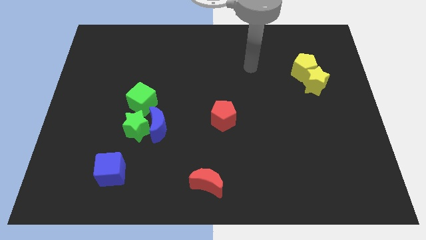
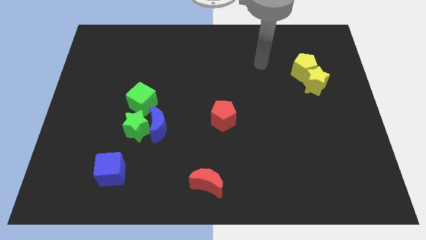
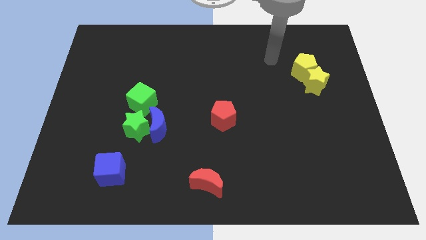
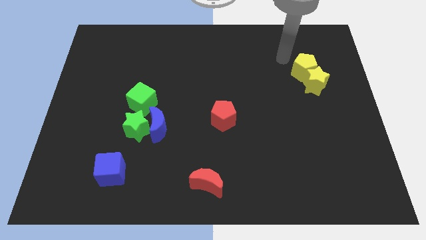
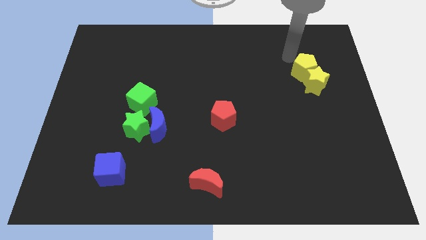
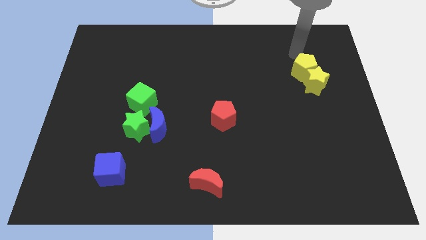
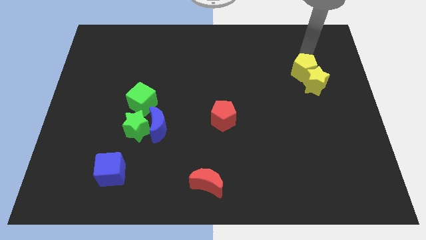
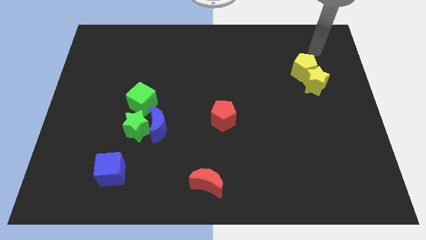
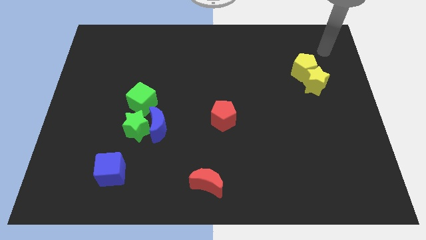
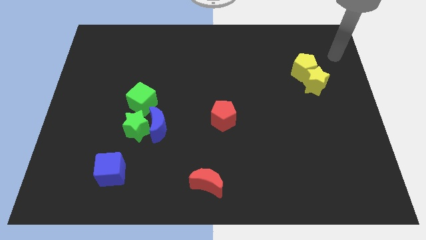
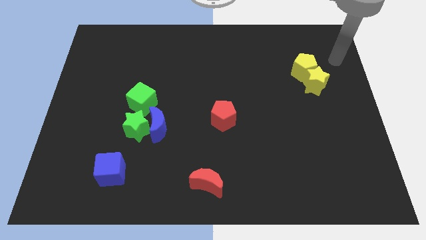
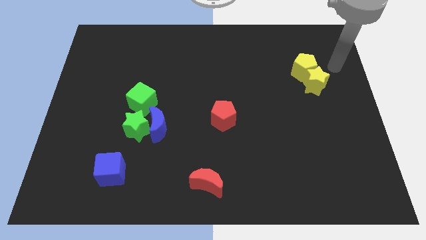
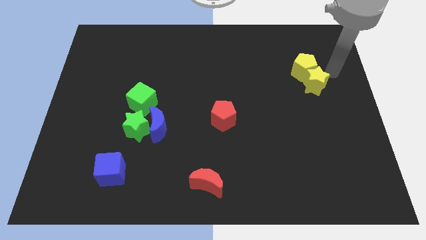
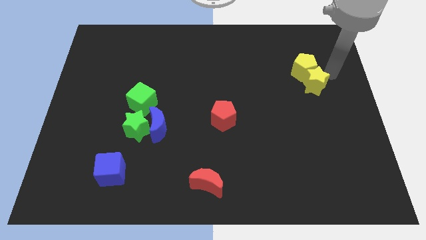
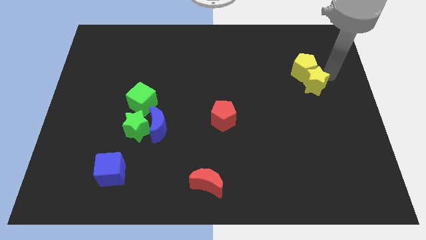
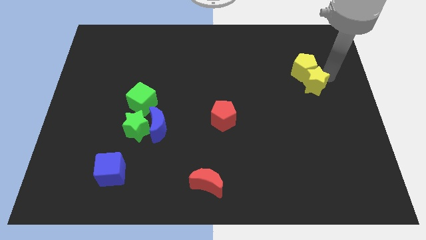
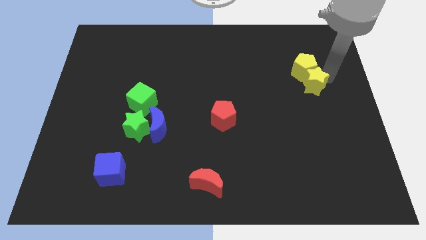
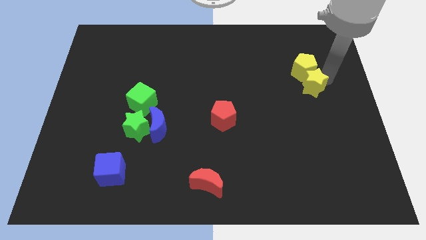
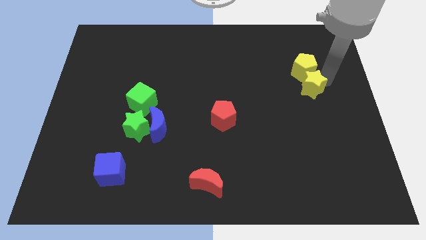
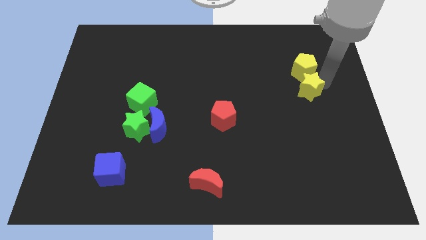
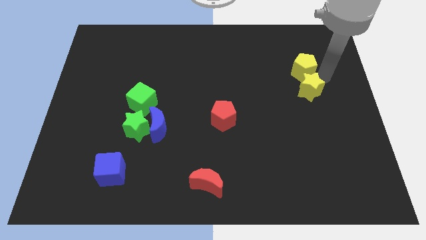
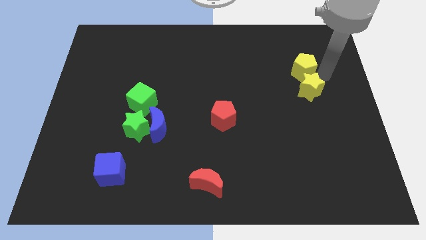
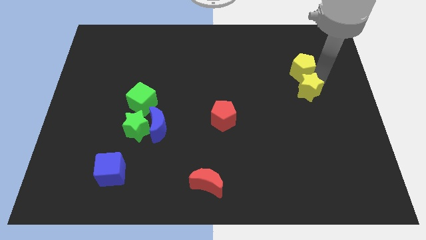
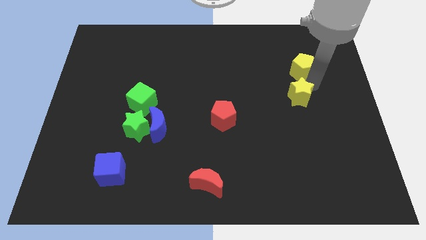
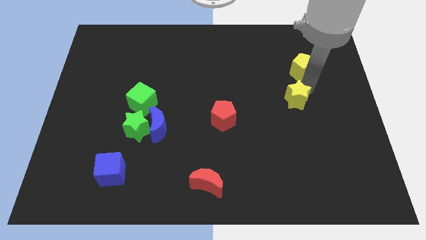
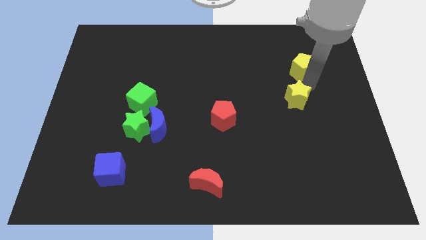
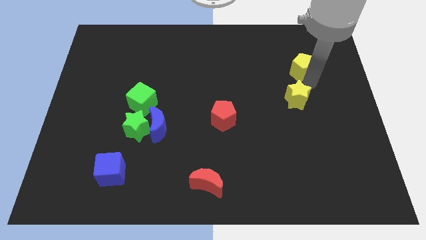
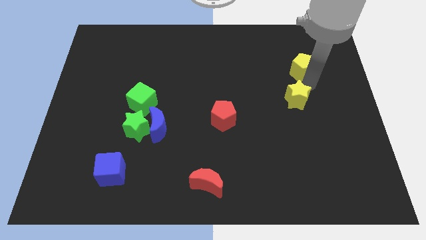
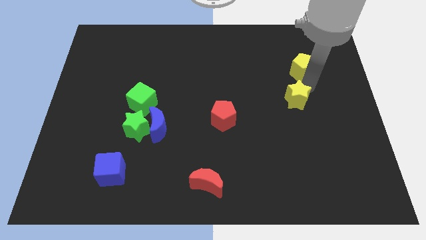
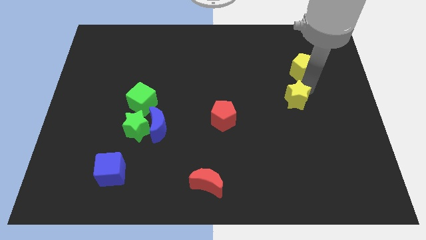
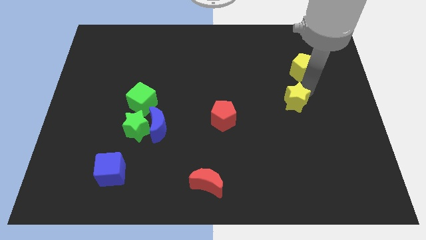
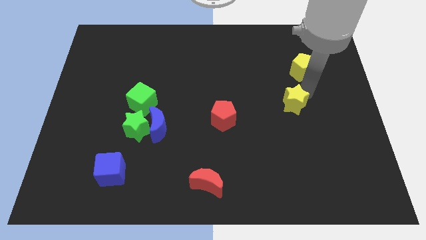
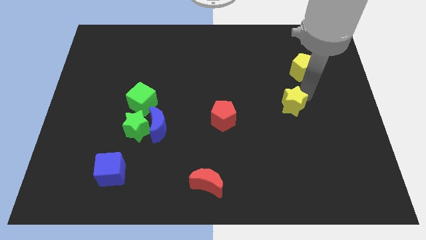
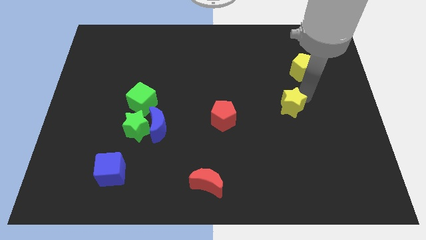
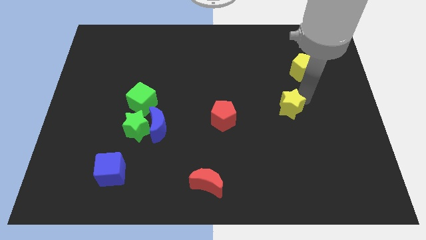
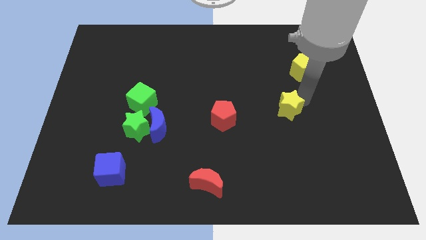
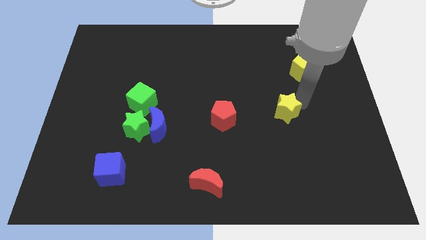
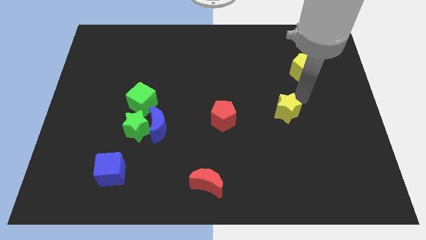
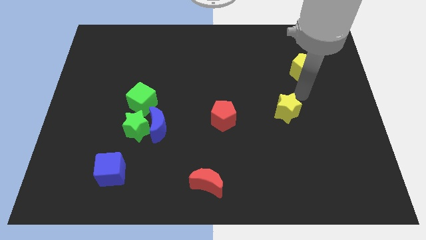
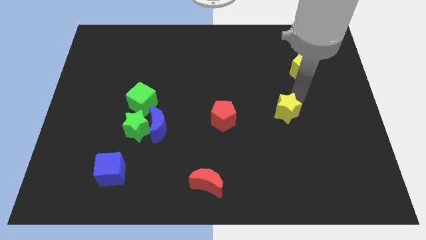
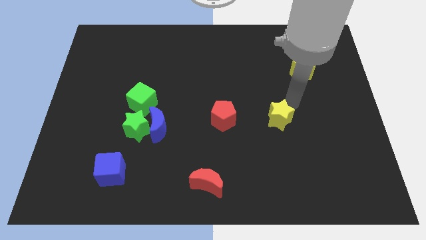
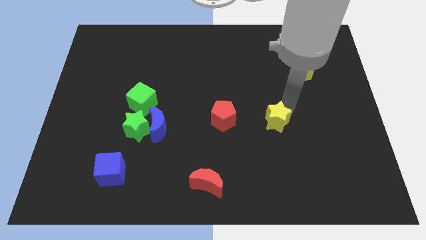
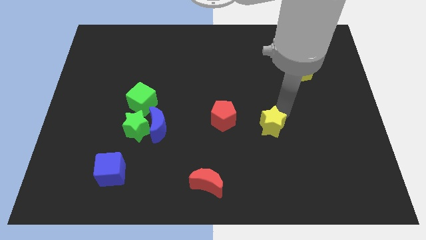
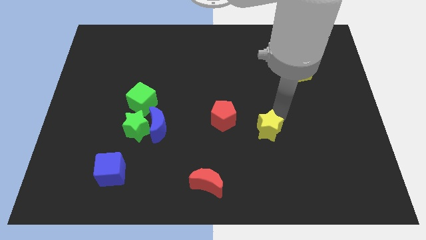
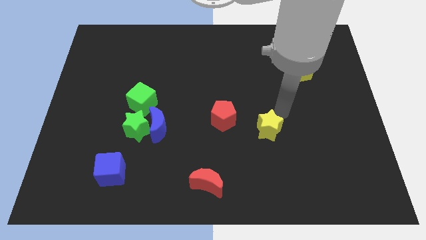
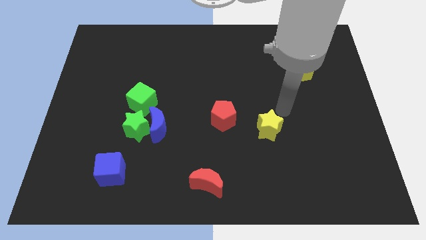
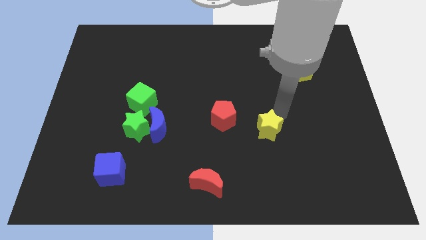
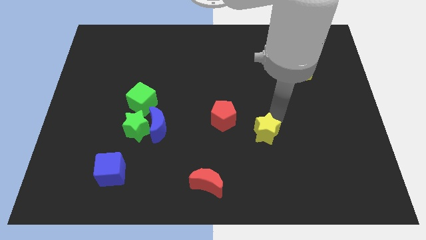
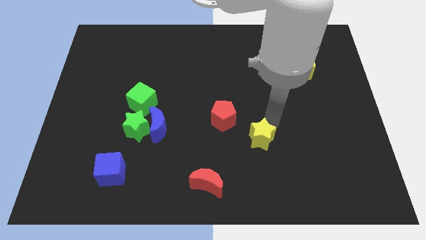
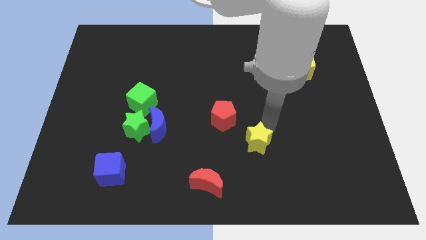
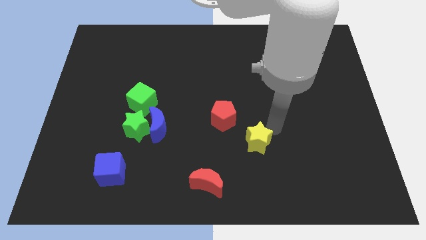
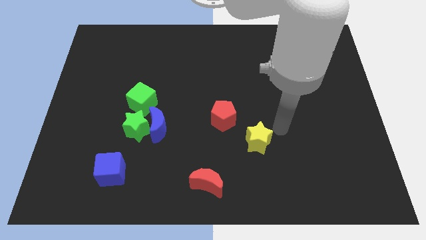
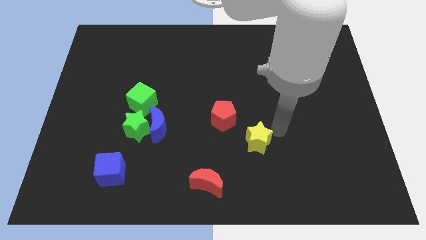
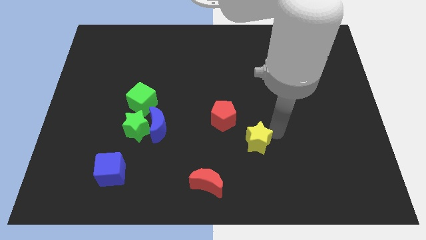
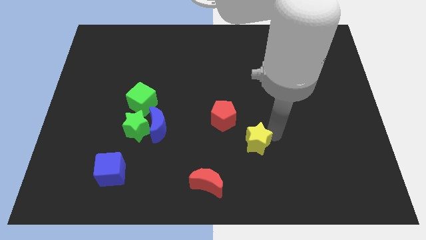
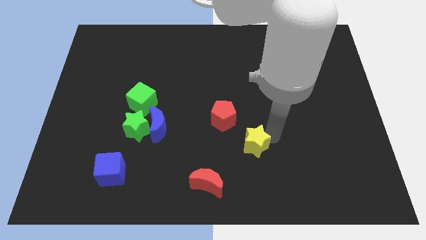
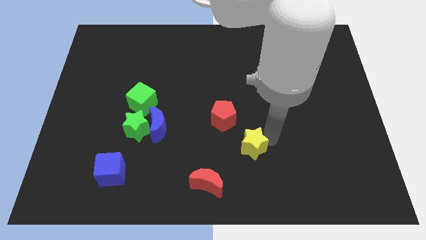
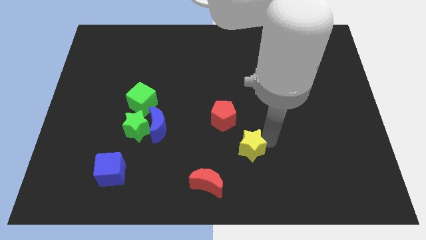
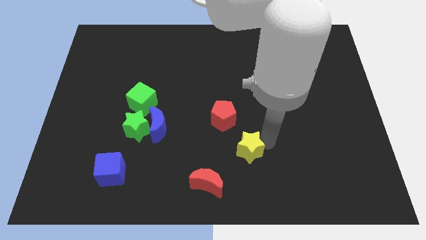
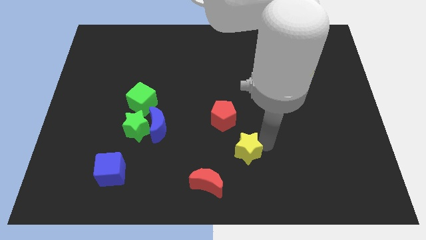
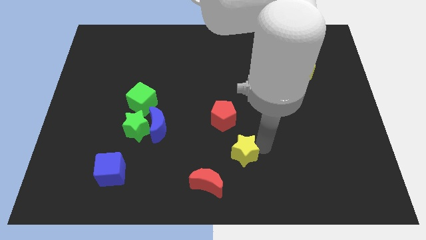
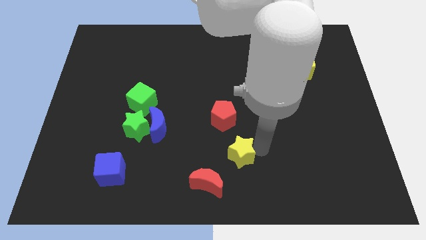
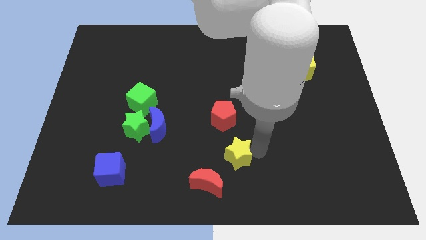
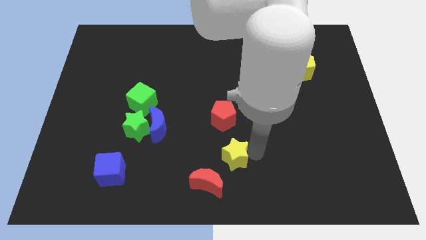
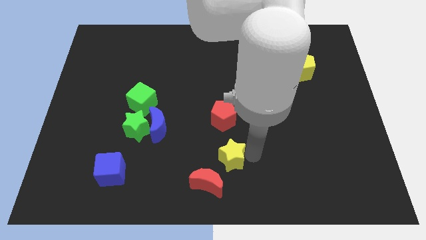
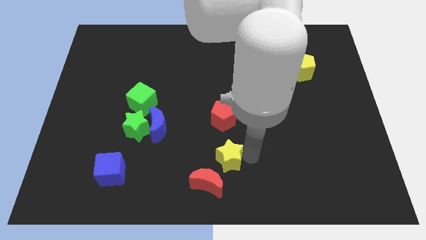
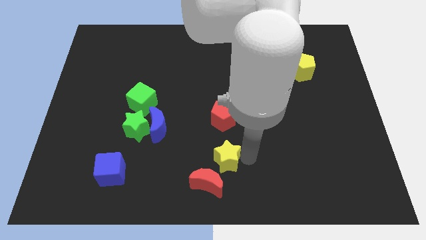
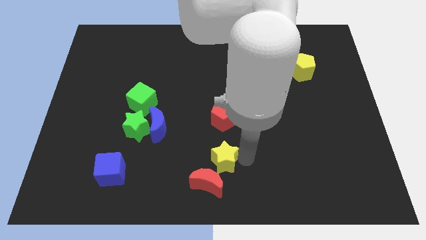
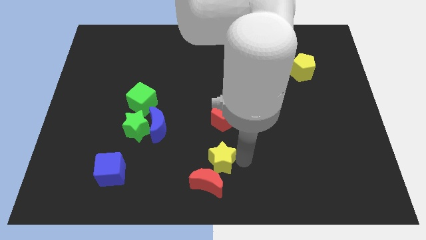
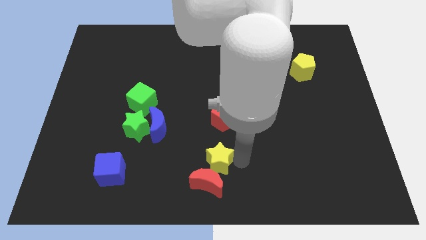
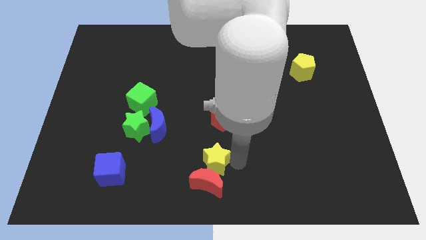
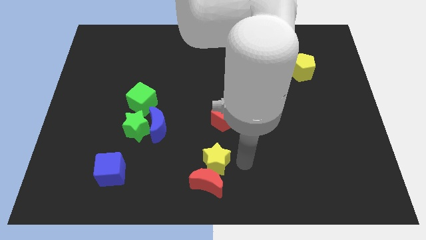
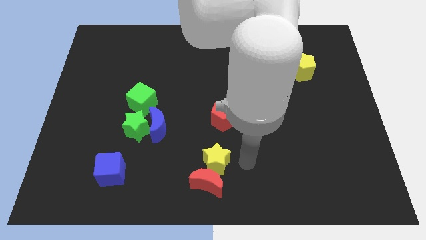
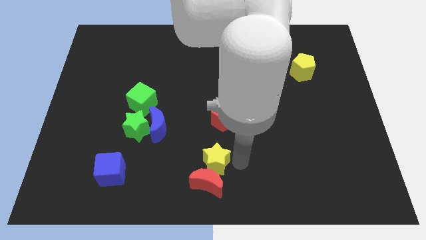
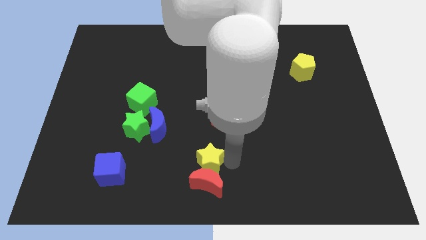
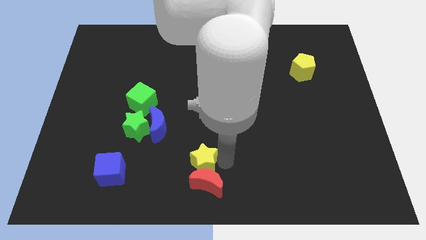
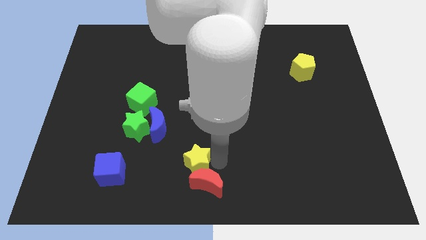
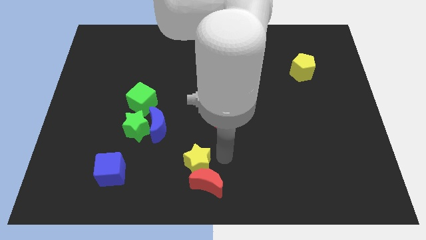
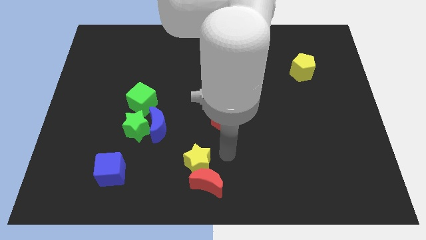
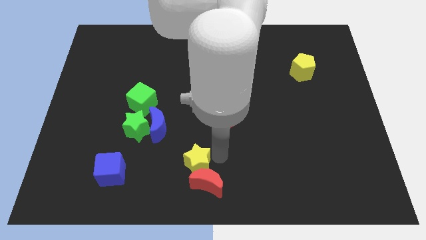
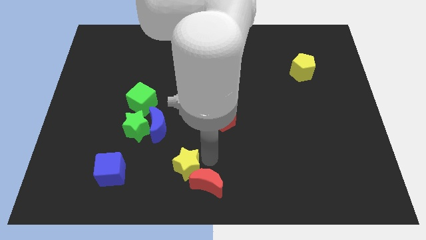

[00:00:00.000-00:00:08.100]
push the yellow star to the right side of the blue cube
